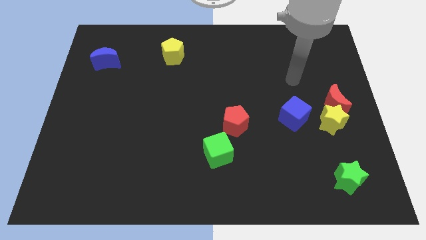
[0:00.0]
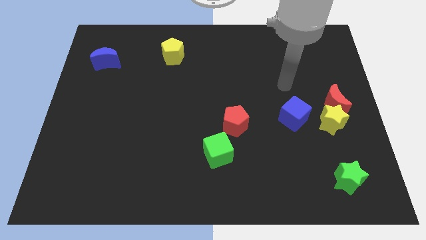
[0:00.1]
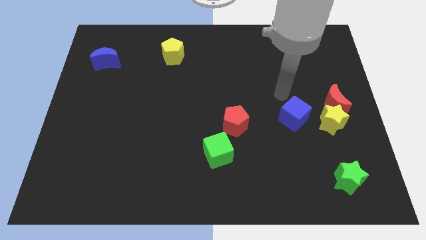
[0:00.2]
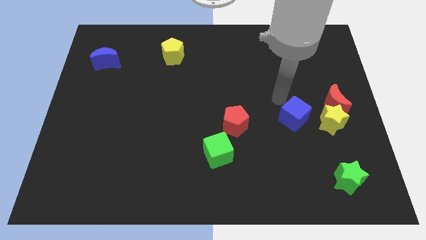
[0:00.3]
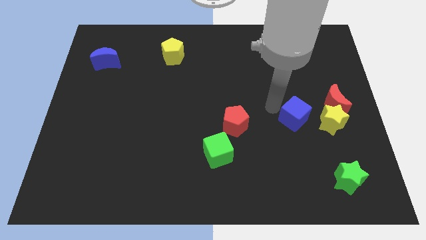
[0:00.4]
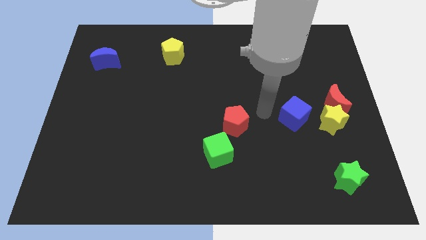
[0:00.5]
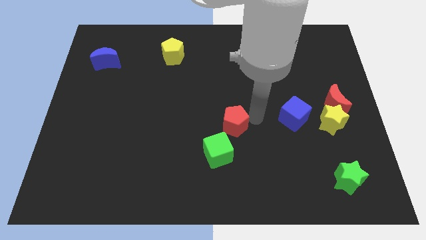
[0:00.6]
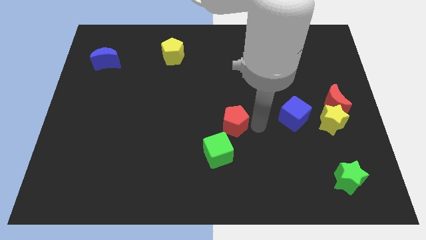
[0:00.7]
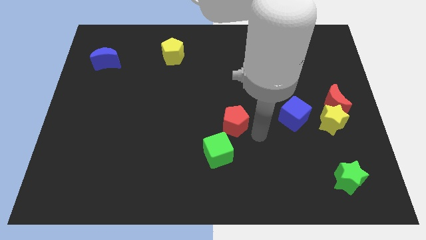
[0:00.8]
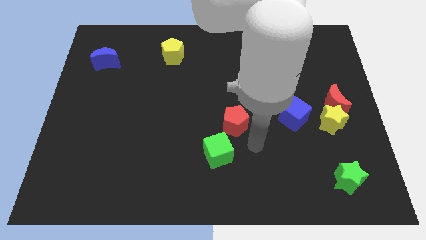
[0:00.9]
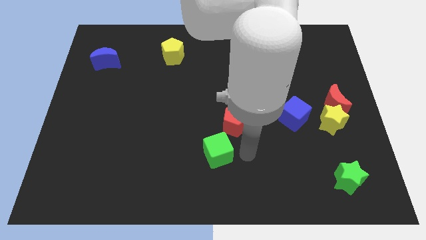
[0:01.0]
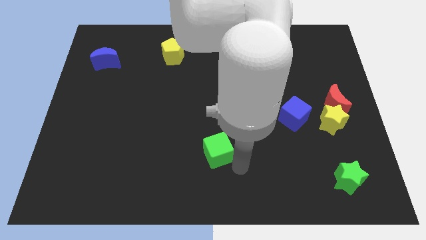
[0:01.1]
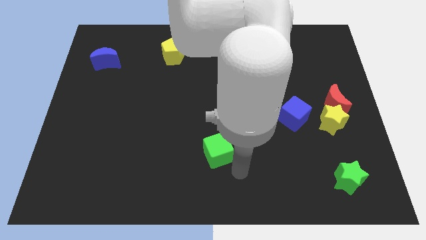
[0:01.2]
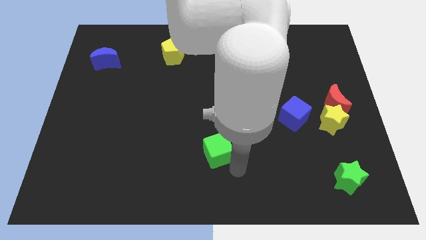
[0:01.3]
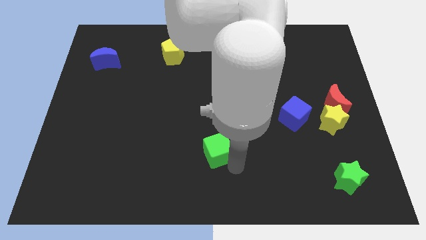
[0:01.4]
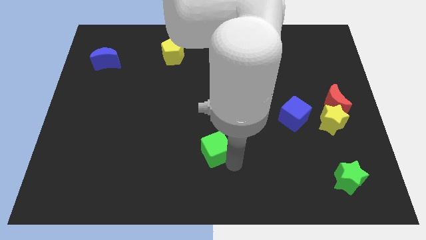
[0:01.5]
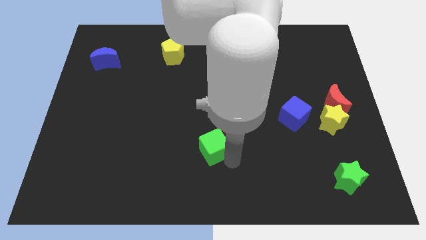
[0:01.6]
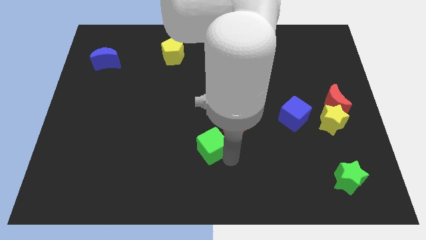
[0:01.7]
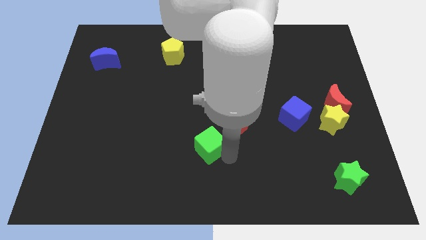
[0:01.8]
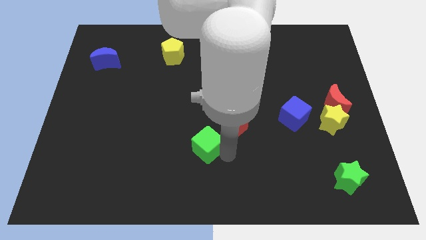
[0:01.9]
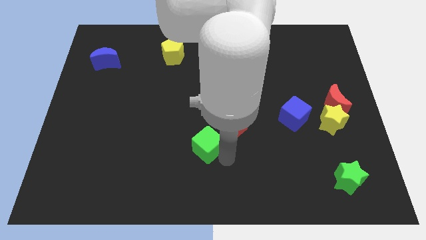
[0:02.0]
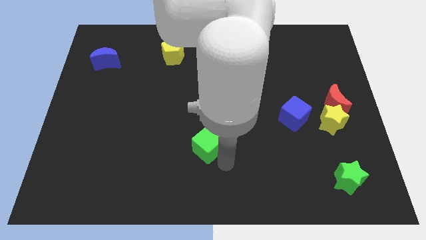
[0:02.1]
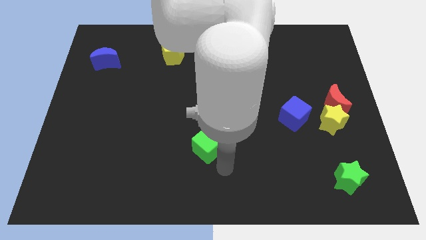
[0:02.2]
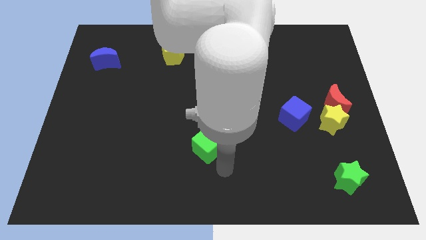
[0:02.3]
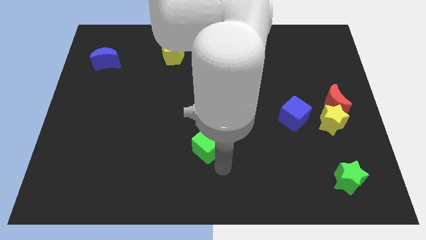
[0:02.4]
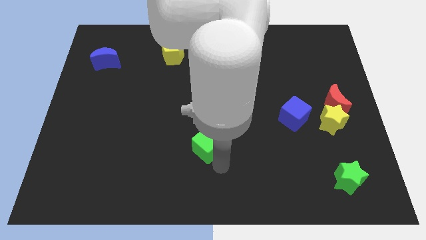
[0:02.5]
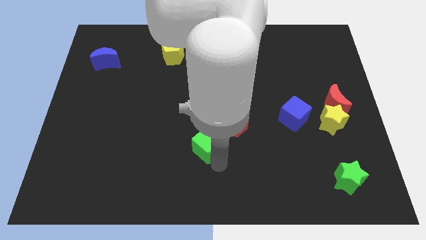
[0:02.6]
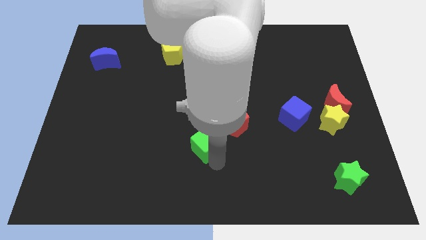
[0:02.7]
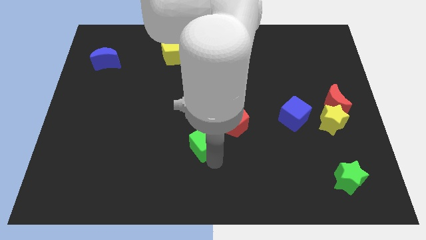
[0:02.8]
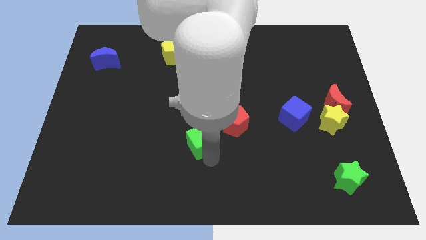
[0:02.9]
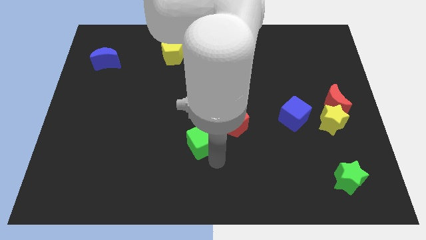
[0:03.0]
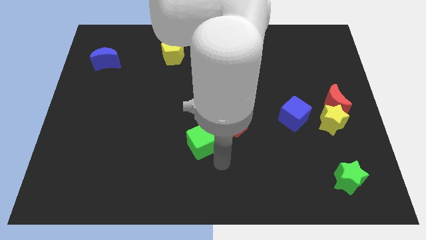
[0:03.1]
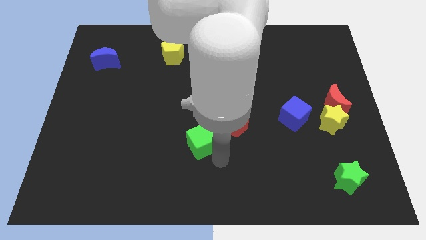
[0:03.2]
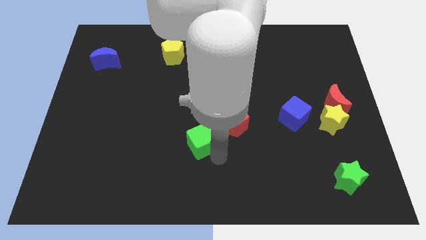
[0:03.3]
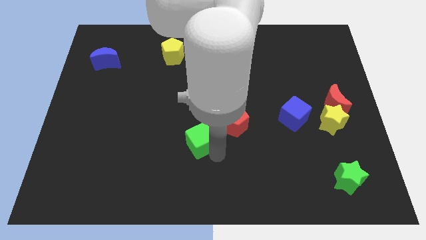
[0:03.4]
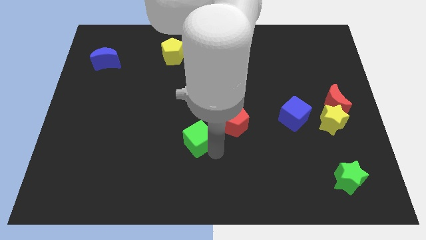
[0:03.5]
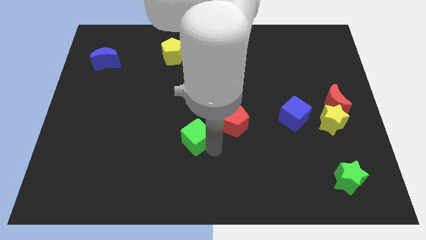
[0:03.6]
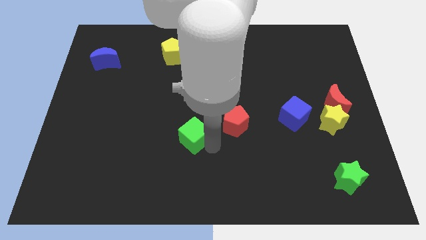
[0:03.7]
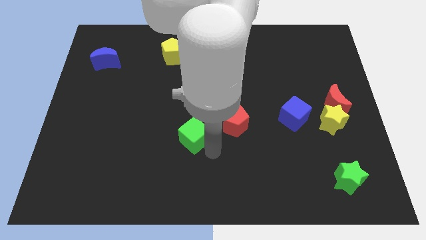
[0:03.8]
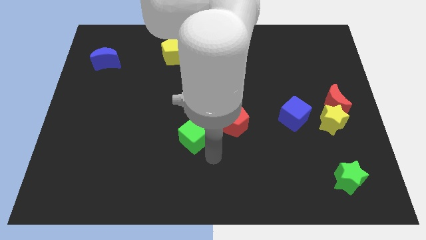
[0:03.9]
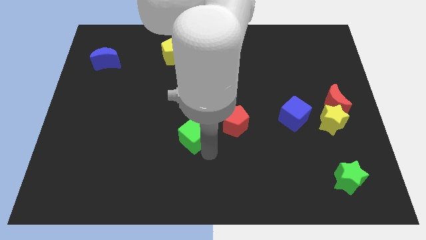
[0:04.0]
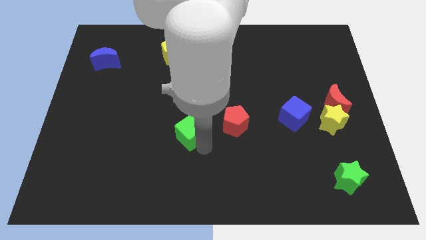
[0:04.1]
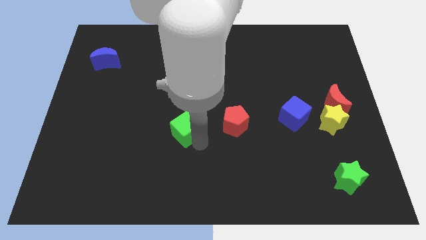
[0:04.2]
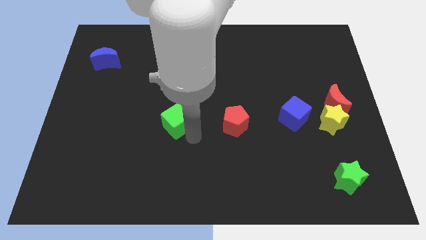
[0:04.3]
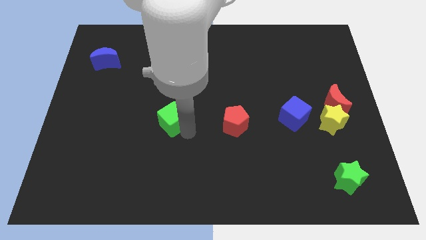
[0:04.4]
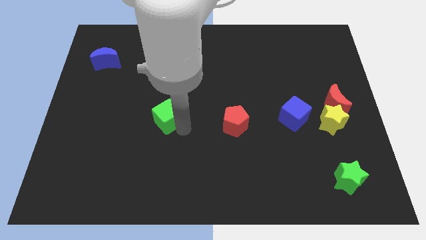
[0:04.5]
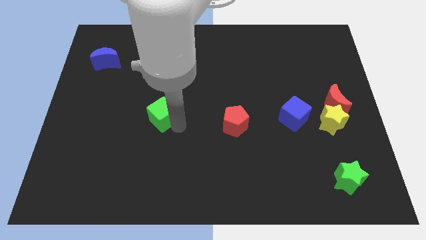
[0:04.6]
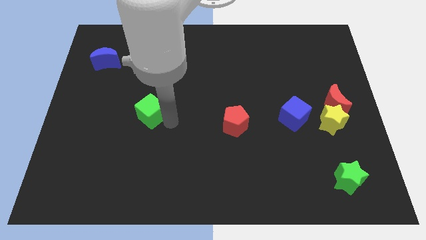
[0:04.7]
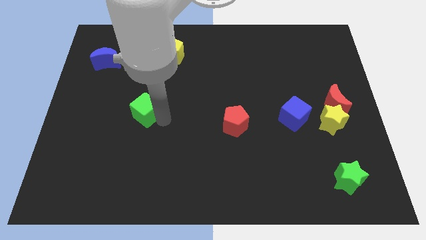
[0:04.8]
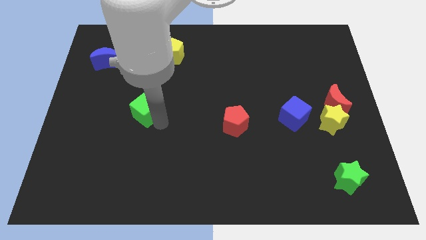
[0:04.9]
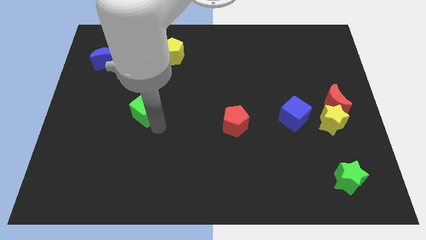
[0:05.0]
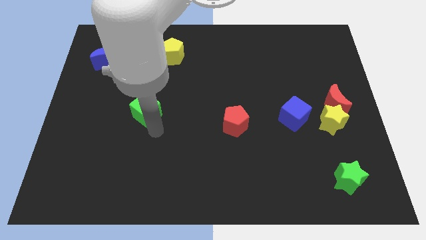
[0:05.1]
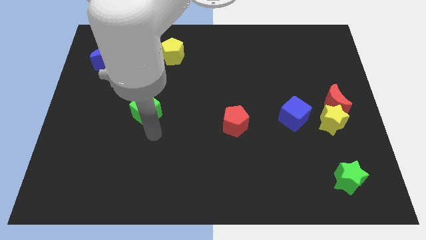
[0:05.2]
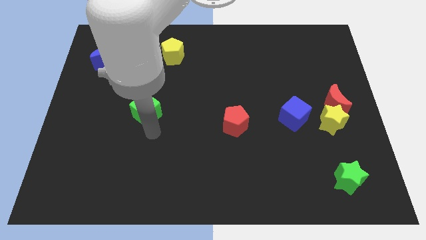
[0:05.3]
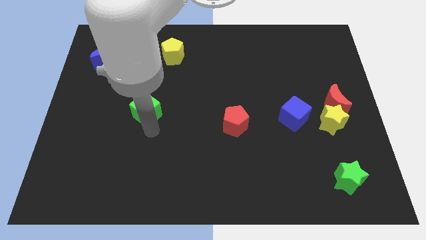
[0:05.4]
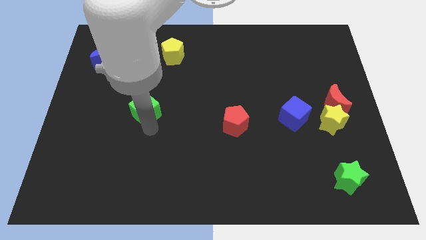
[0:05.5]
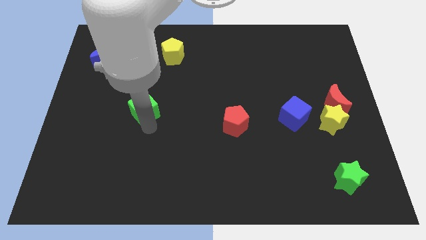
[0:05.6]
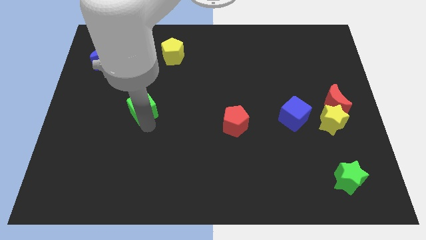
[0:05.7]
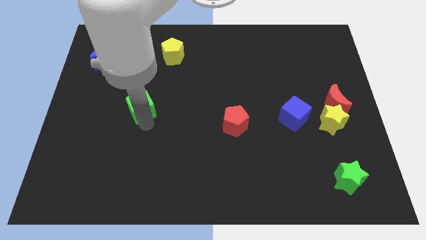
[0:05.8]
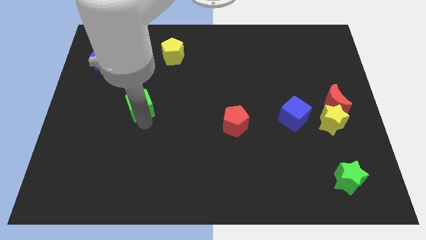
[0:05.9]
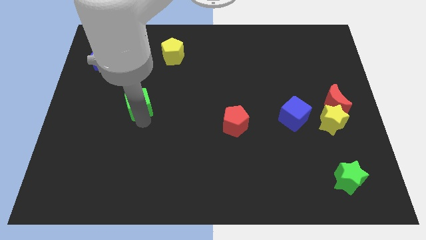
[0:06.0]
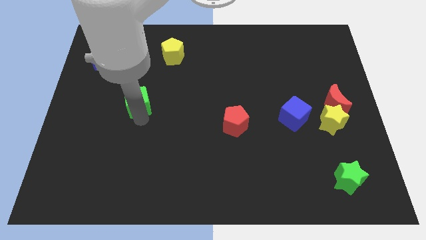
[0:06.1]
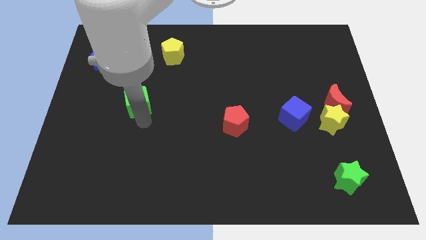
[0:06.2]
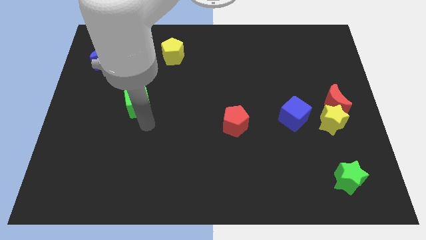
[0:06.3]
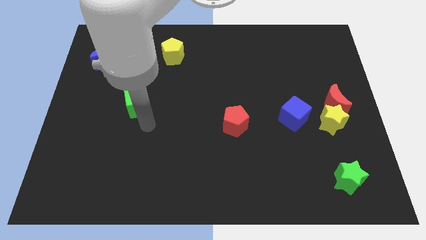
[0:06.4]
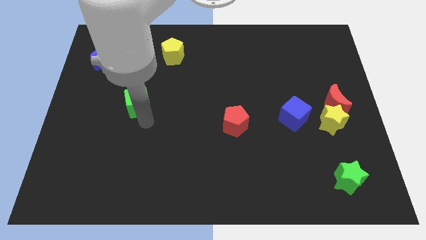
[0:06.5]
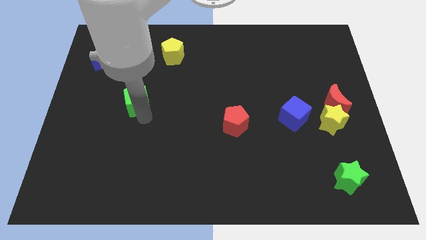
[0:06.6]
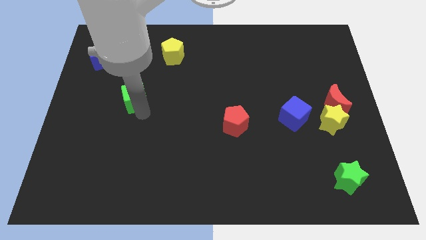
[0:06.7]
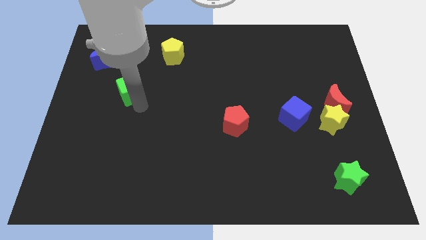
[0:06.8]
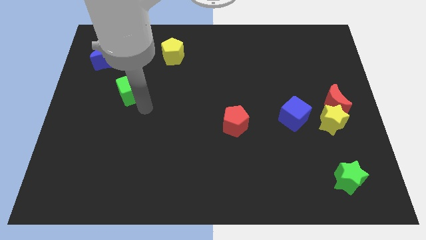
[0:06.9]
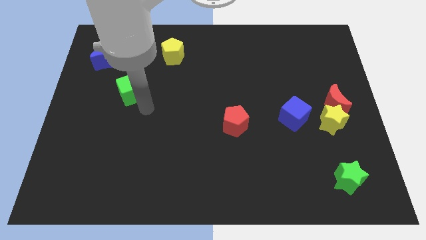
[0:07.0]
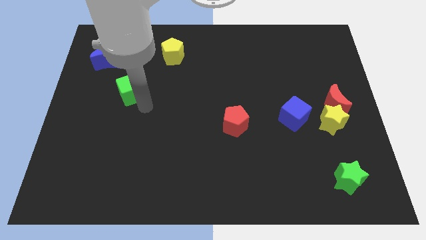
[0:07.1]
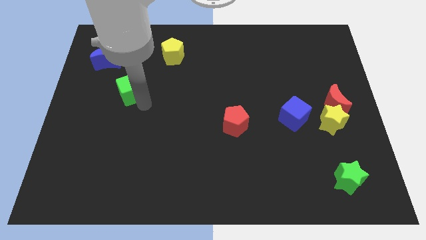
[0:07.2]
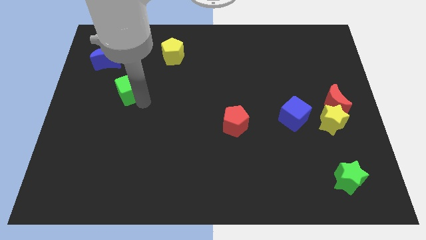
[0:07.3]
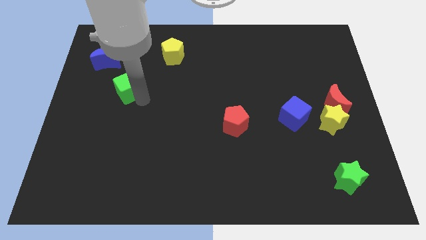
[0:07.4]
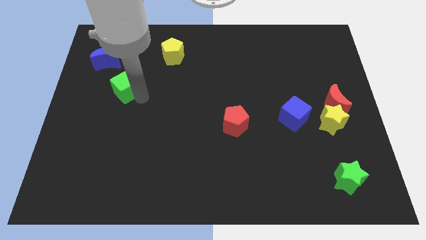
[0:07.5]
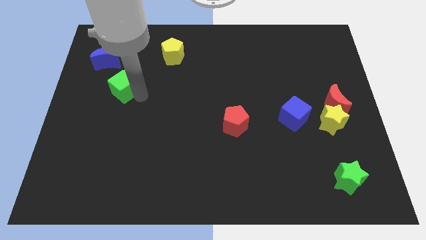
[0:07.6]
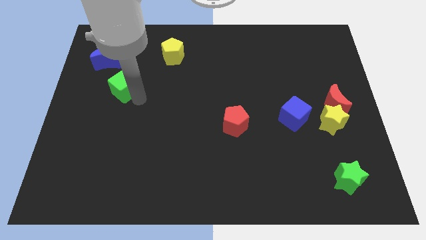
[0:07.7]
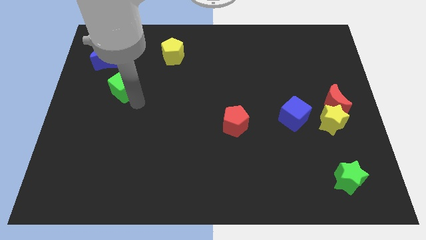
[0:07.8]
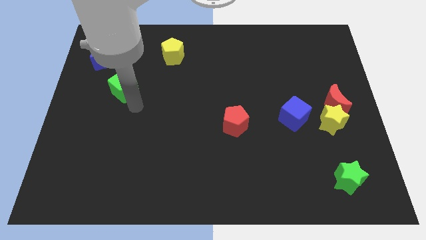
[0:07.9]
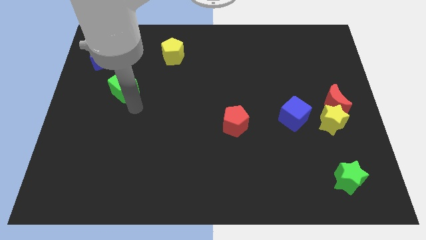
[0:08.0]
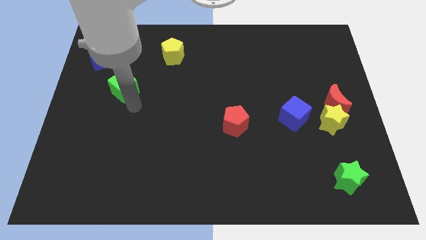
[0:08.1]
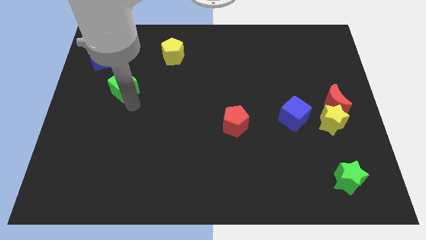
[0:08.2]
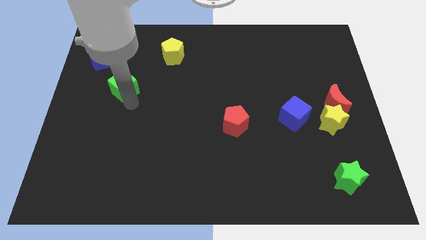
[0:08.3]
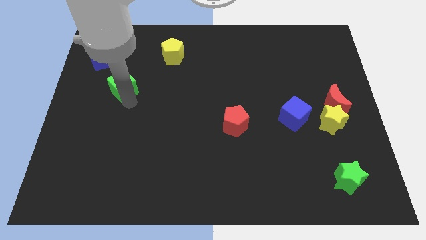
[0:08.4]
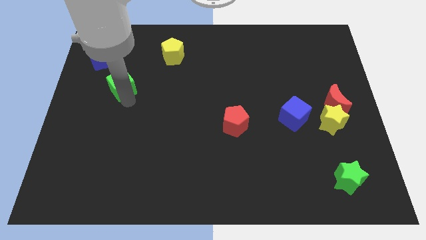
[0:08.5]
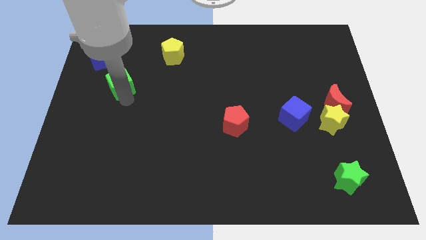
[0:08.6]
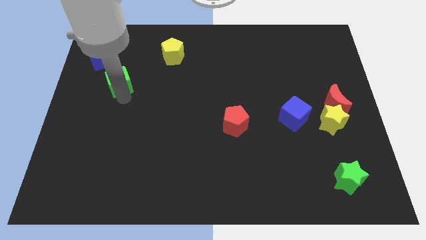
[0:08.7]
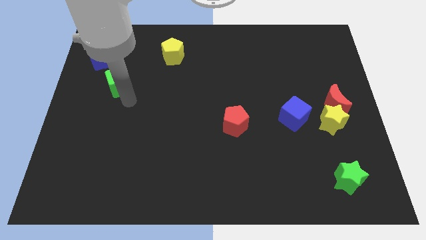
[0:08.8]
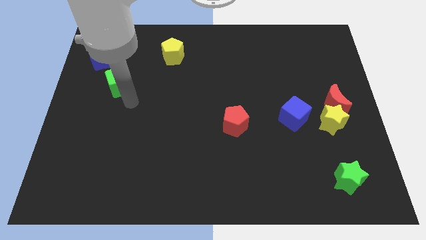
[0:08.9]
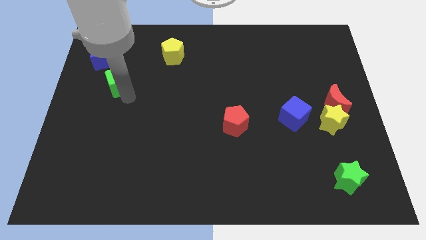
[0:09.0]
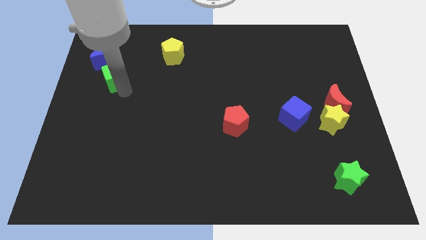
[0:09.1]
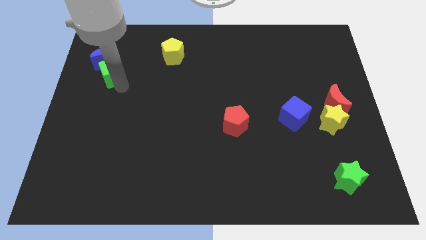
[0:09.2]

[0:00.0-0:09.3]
put the green cube close to the blue moon
